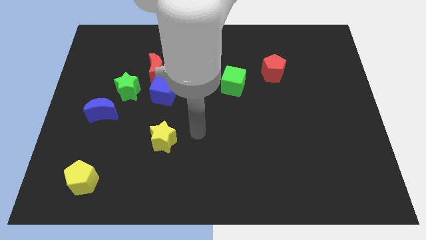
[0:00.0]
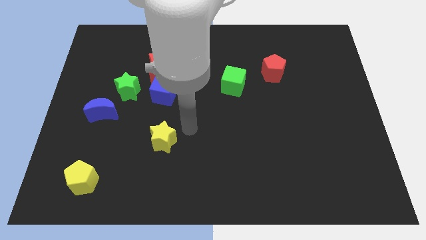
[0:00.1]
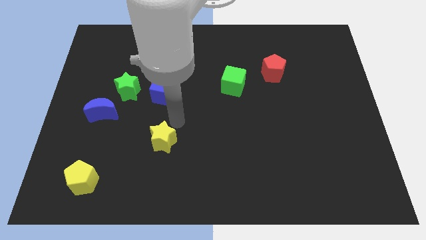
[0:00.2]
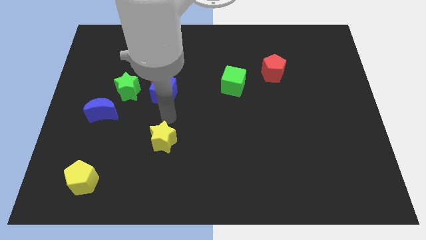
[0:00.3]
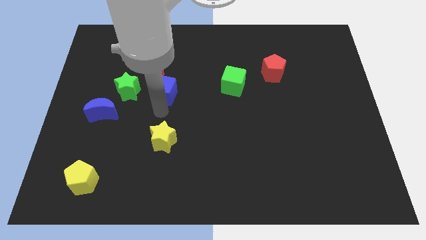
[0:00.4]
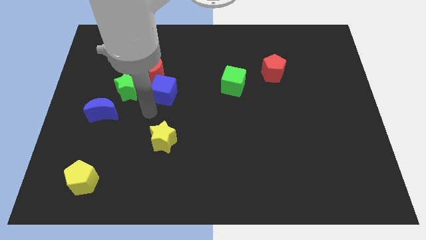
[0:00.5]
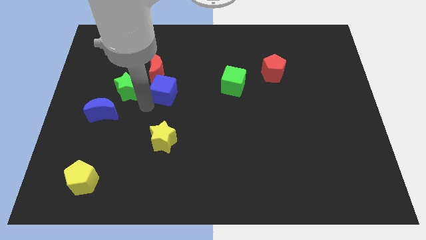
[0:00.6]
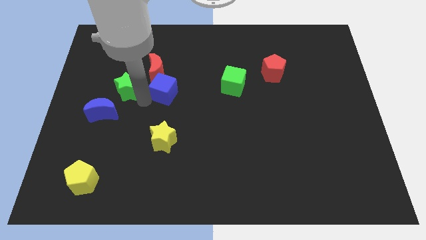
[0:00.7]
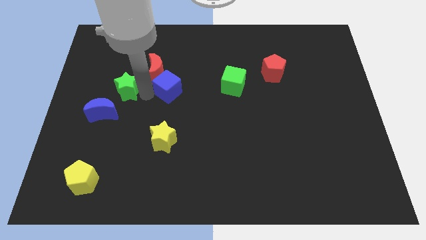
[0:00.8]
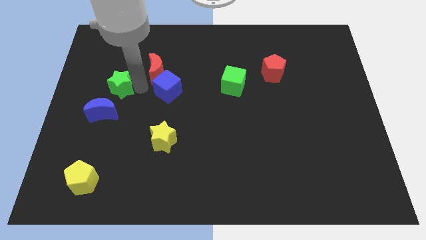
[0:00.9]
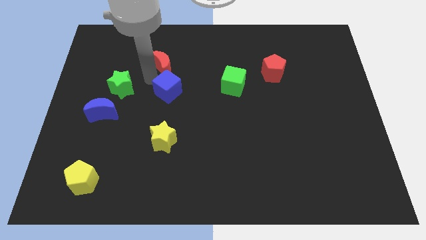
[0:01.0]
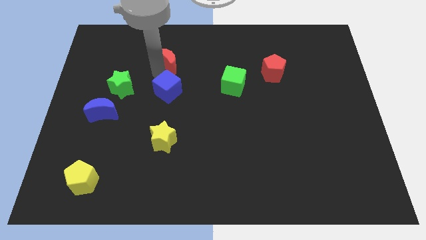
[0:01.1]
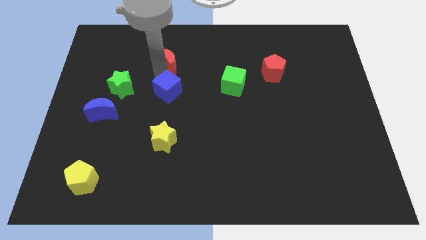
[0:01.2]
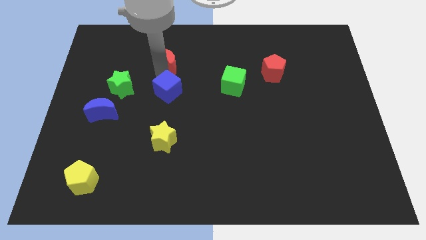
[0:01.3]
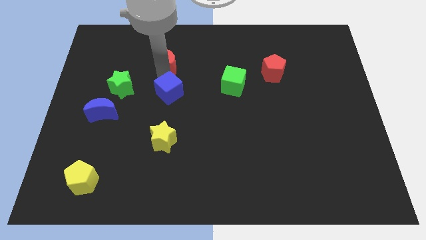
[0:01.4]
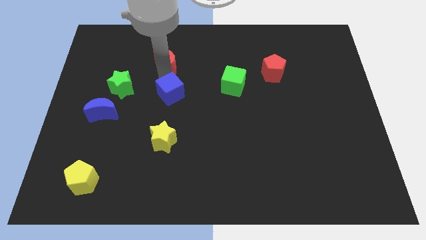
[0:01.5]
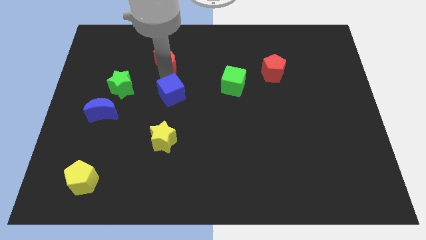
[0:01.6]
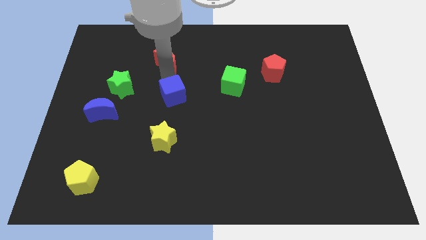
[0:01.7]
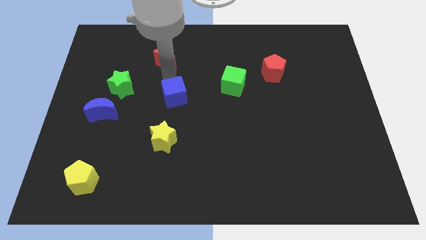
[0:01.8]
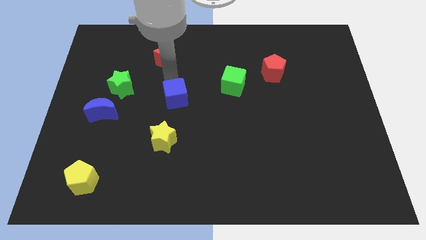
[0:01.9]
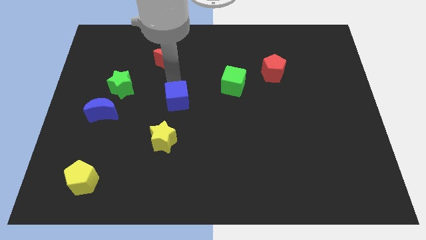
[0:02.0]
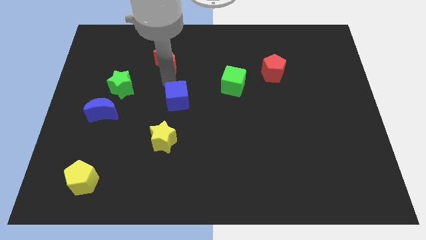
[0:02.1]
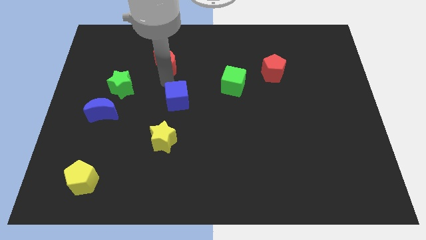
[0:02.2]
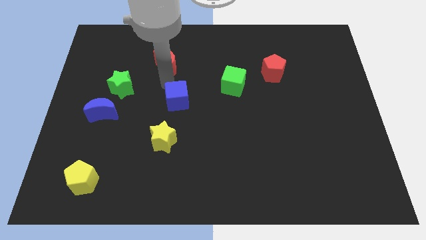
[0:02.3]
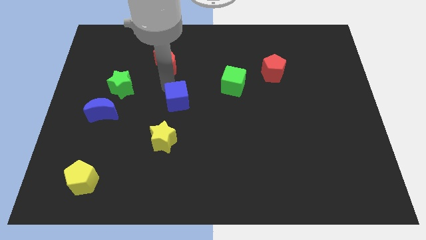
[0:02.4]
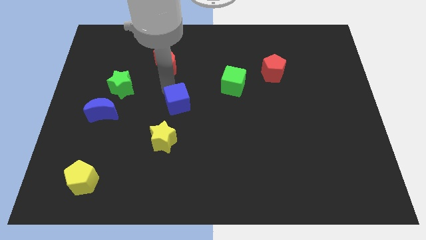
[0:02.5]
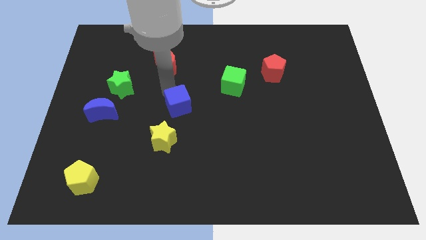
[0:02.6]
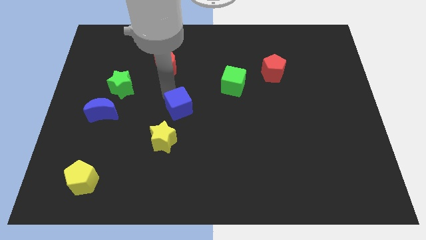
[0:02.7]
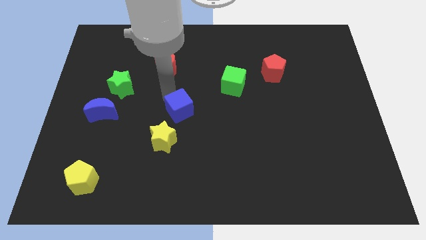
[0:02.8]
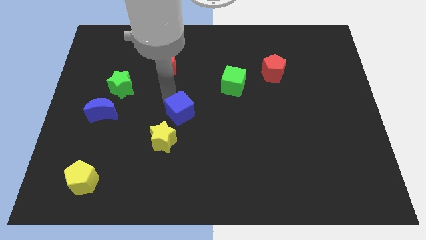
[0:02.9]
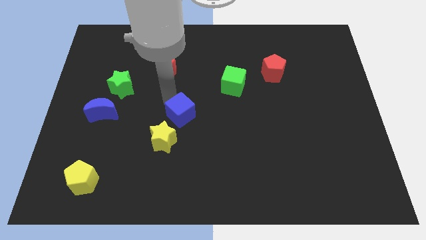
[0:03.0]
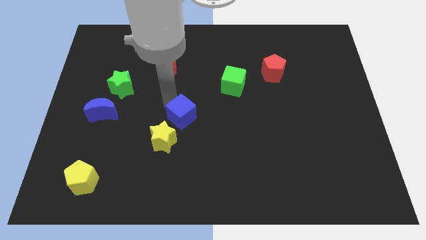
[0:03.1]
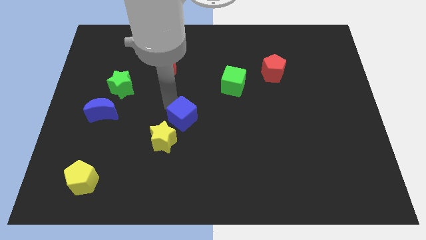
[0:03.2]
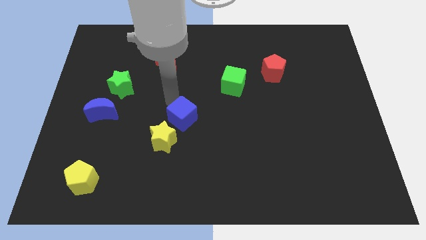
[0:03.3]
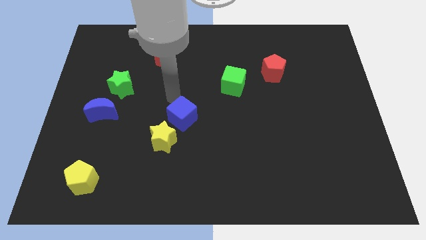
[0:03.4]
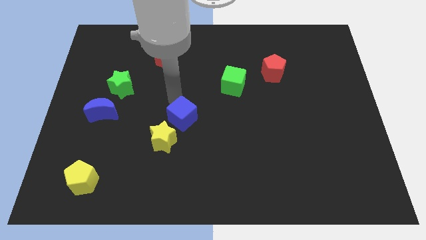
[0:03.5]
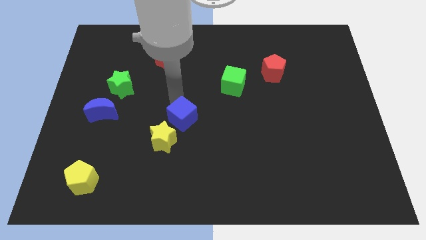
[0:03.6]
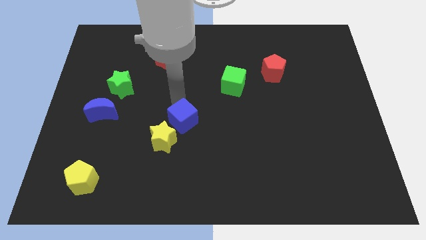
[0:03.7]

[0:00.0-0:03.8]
slightly slide the blue cube downwards

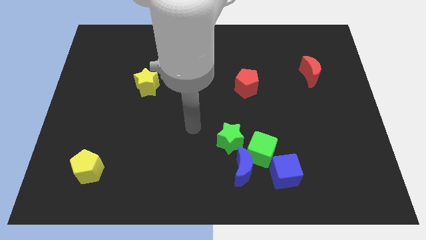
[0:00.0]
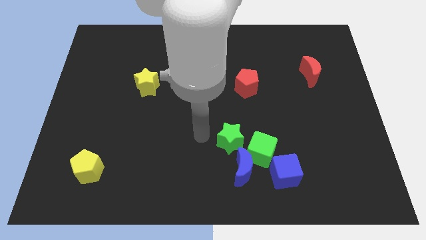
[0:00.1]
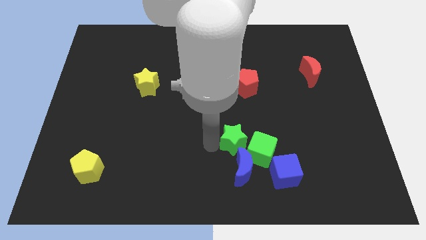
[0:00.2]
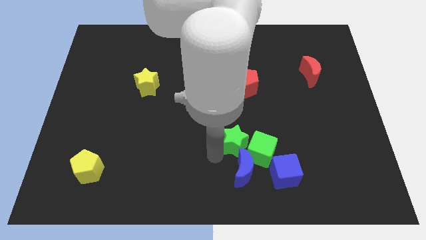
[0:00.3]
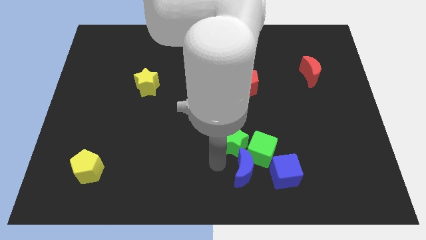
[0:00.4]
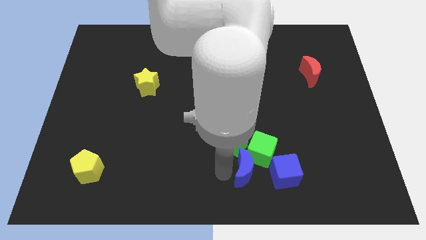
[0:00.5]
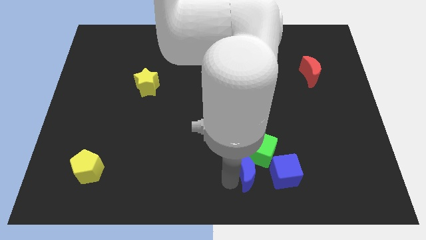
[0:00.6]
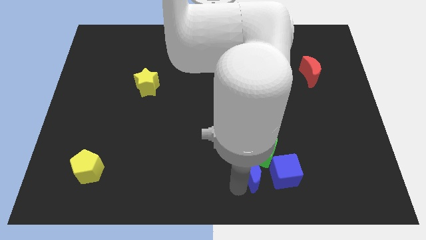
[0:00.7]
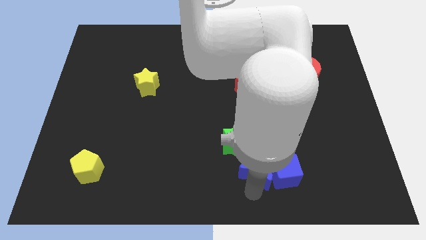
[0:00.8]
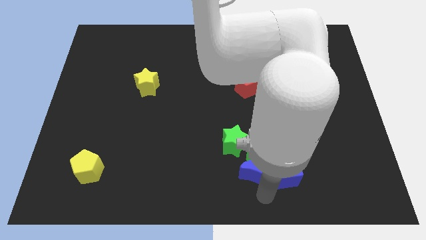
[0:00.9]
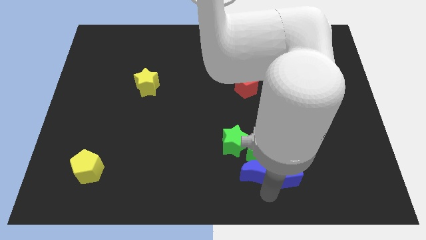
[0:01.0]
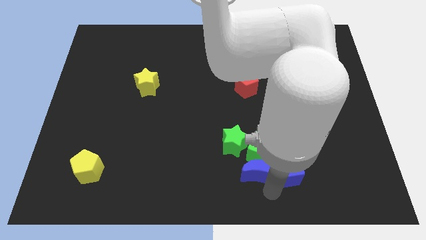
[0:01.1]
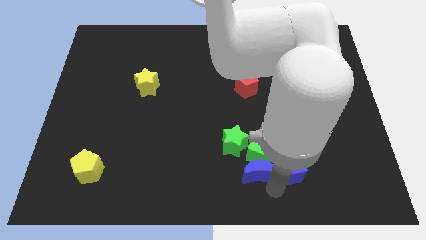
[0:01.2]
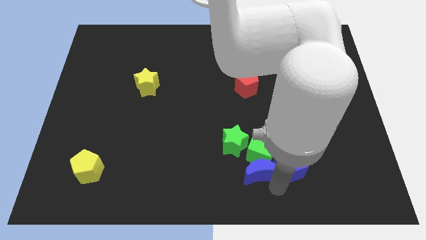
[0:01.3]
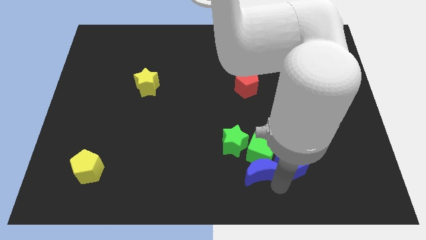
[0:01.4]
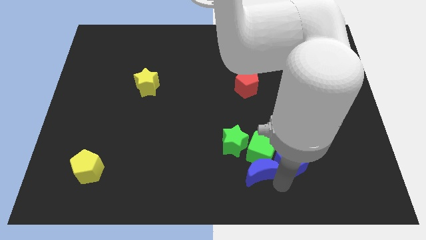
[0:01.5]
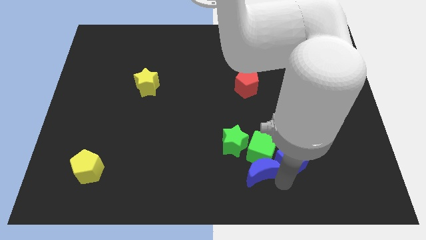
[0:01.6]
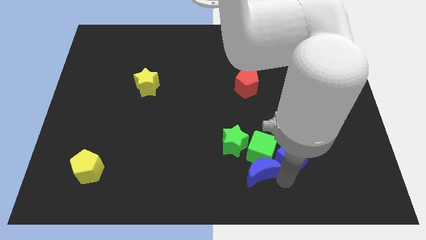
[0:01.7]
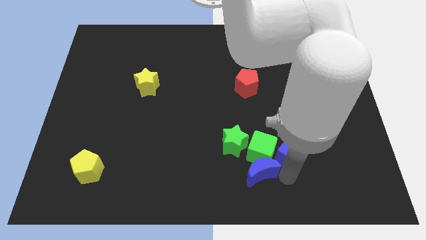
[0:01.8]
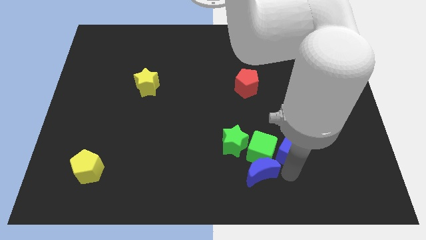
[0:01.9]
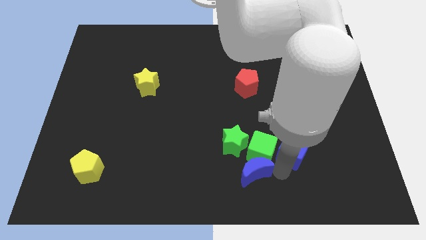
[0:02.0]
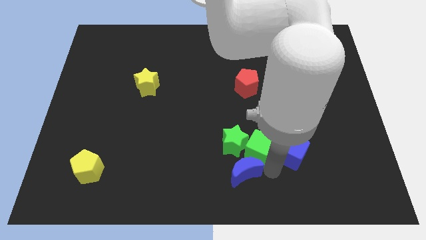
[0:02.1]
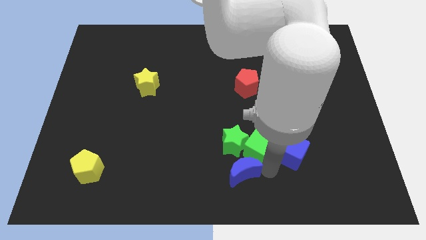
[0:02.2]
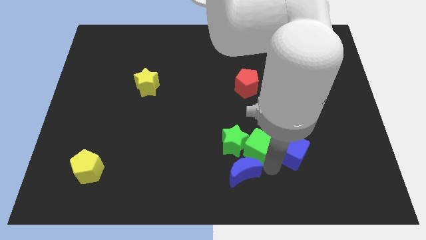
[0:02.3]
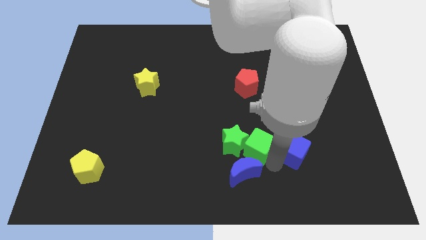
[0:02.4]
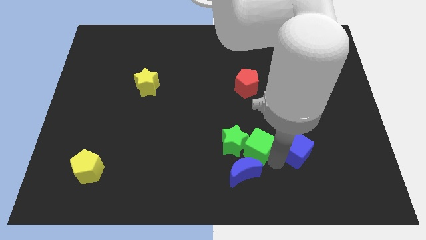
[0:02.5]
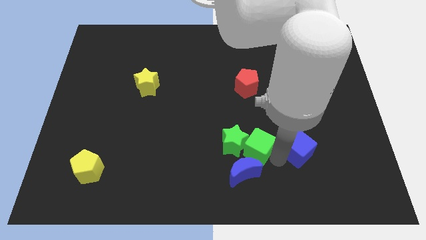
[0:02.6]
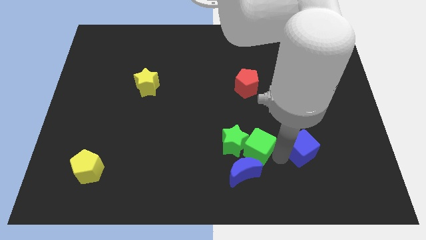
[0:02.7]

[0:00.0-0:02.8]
slide the blue cube a little bit upwards and then to the right

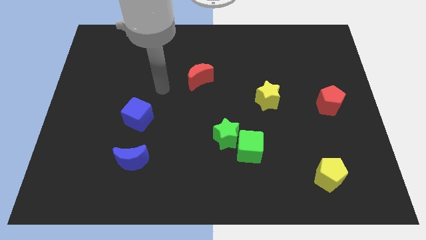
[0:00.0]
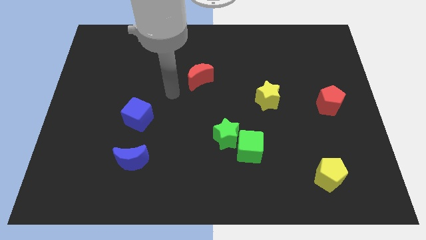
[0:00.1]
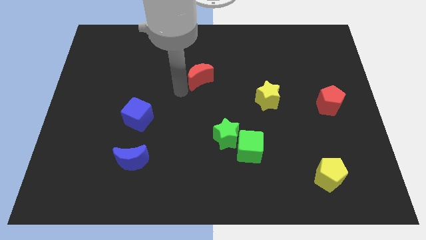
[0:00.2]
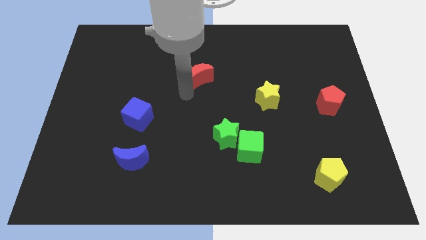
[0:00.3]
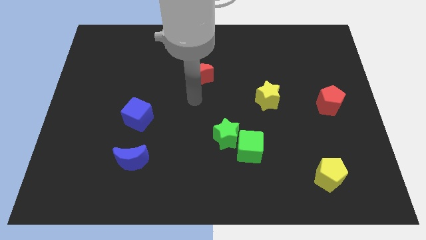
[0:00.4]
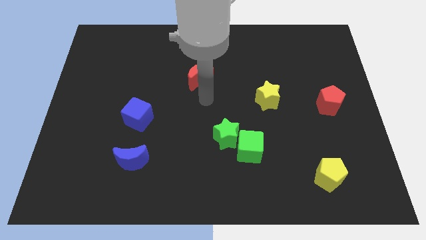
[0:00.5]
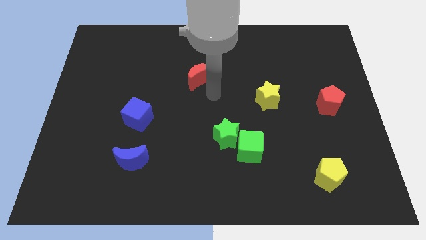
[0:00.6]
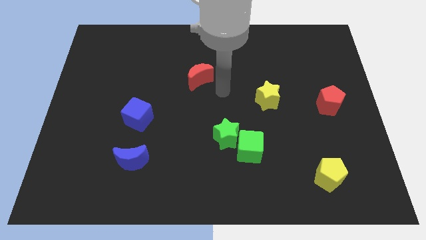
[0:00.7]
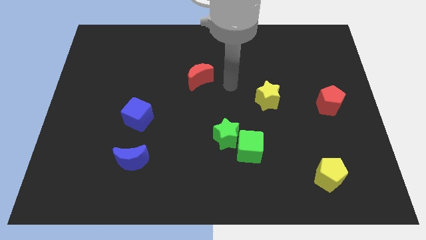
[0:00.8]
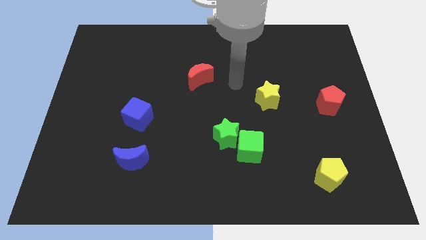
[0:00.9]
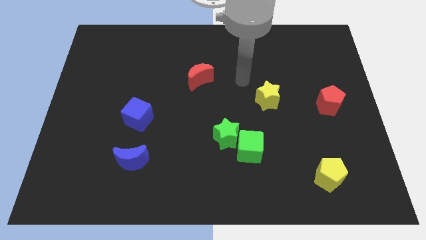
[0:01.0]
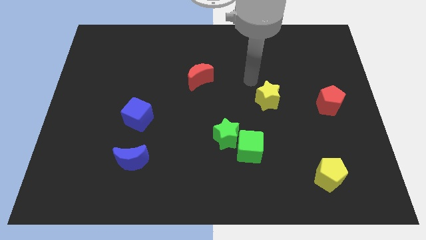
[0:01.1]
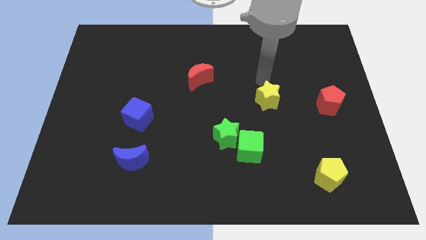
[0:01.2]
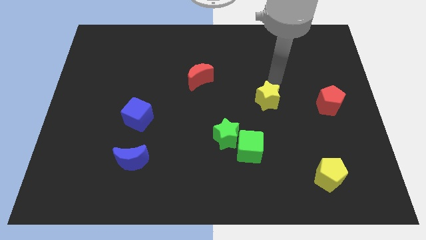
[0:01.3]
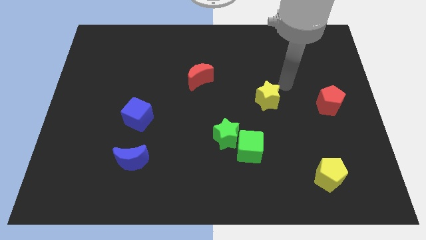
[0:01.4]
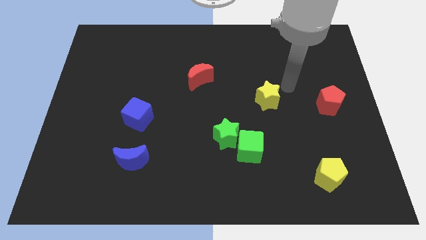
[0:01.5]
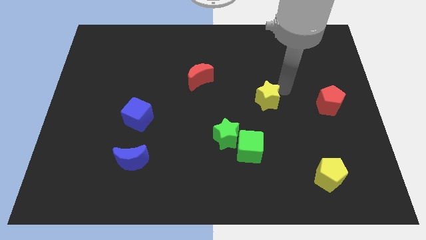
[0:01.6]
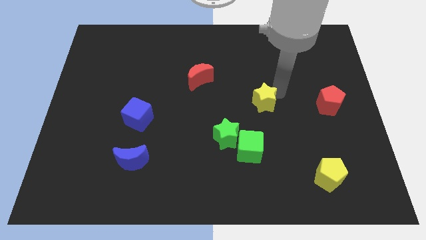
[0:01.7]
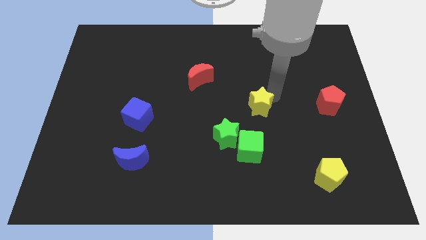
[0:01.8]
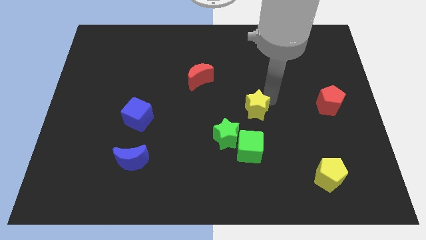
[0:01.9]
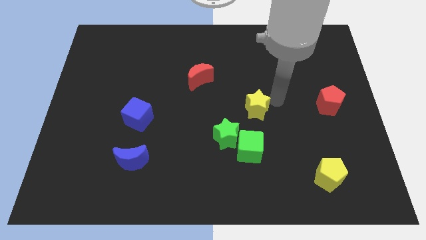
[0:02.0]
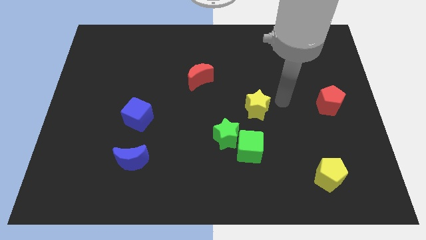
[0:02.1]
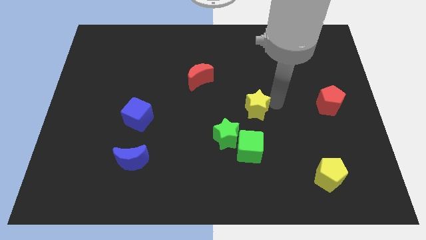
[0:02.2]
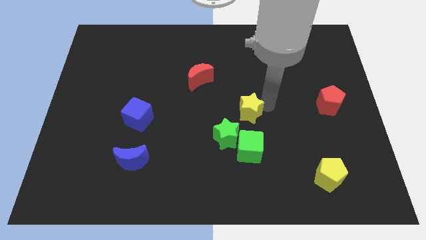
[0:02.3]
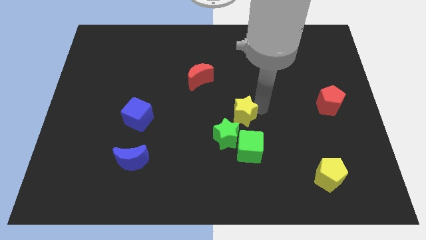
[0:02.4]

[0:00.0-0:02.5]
move the yellow star downwards and then to the left a little
